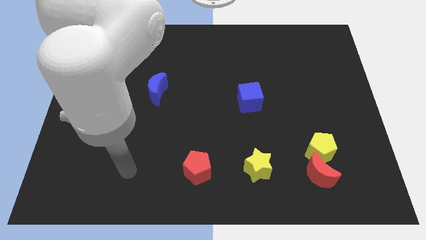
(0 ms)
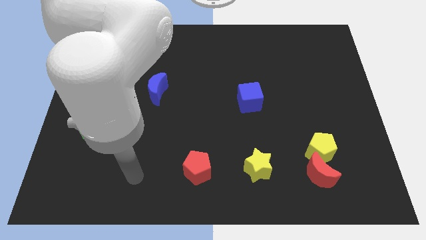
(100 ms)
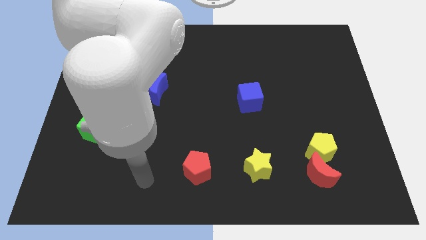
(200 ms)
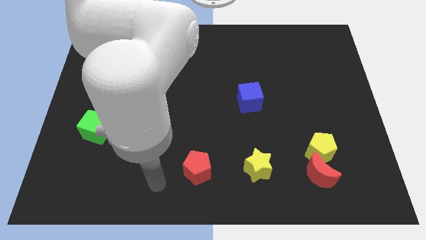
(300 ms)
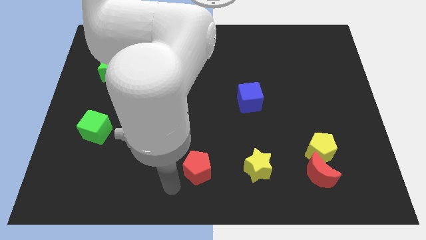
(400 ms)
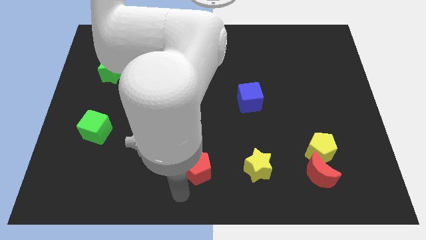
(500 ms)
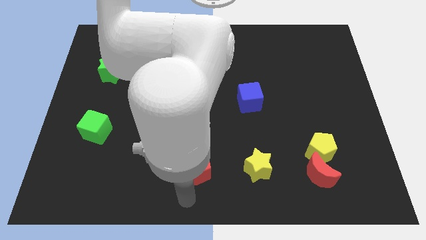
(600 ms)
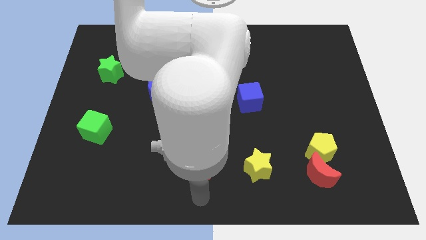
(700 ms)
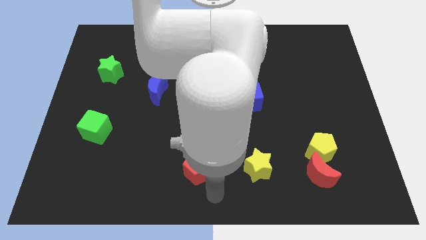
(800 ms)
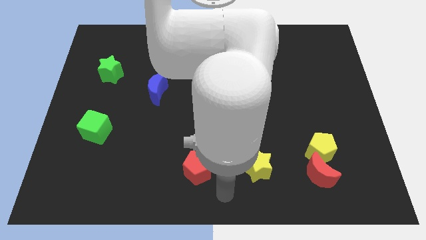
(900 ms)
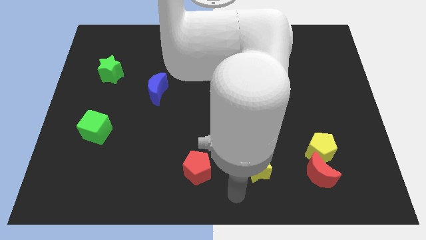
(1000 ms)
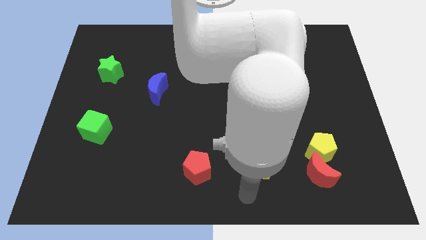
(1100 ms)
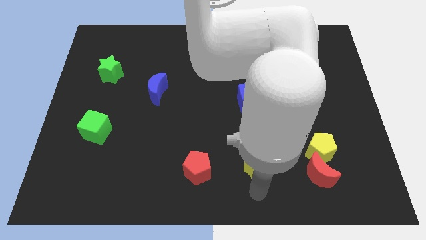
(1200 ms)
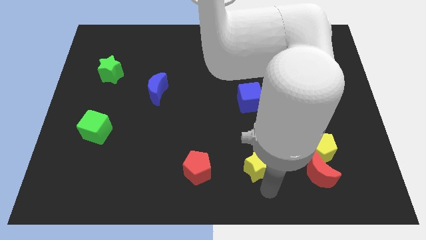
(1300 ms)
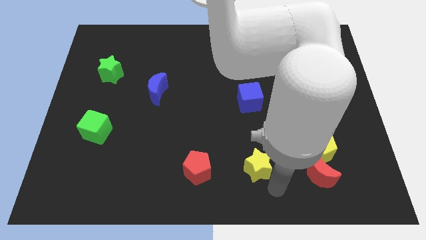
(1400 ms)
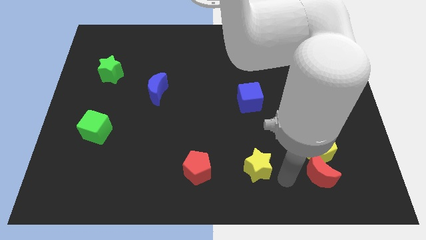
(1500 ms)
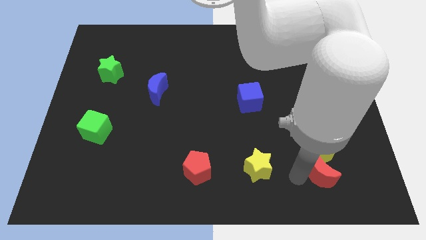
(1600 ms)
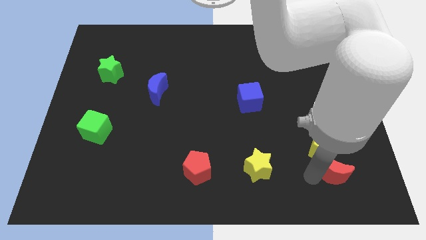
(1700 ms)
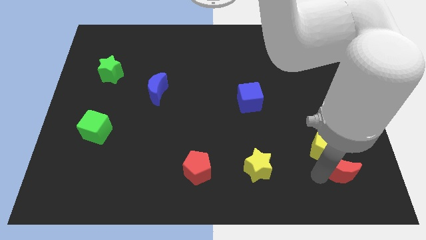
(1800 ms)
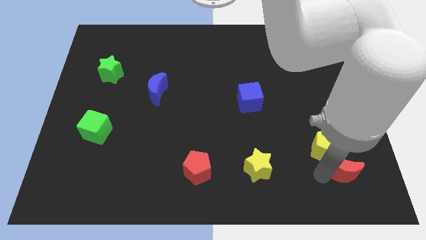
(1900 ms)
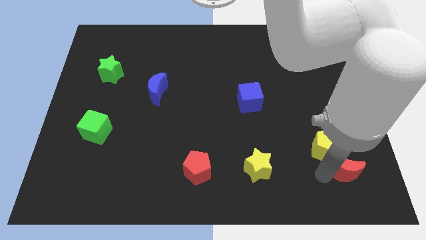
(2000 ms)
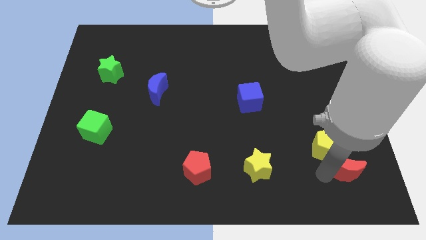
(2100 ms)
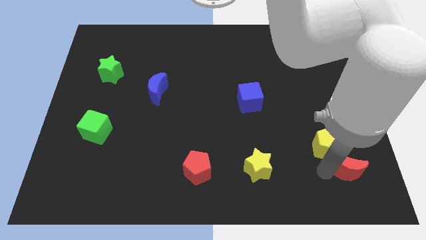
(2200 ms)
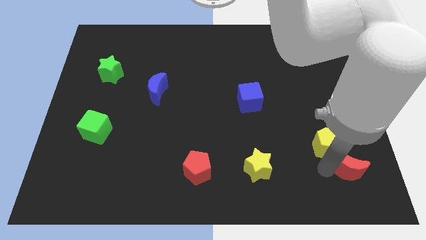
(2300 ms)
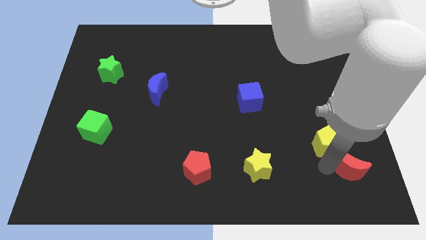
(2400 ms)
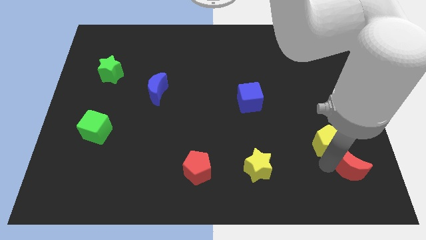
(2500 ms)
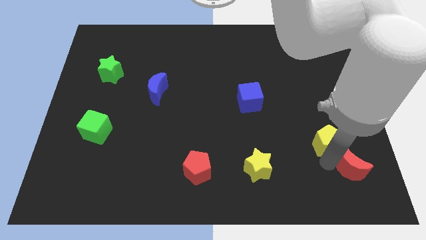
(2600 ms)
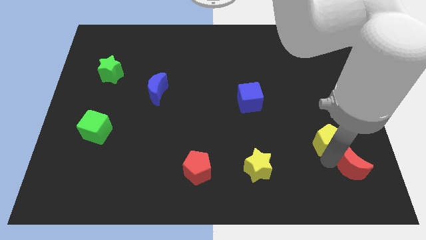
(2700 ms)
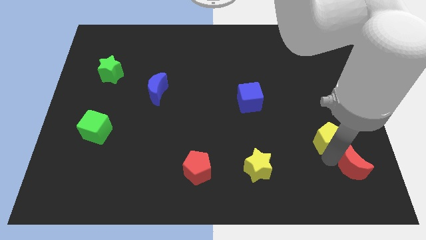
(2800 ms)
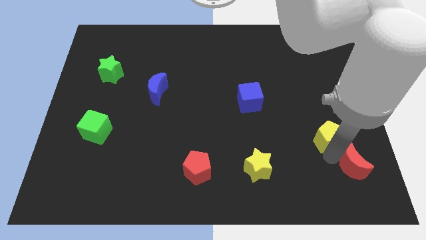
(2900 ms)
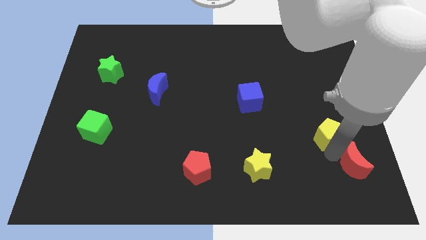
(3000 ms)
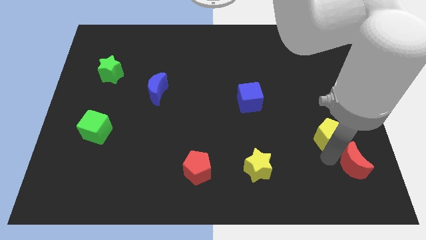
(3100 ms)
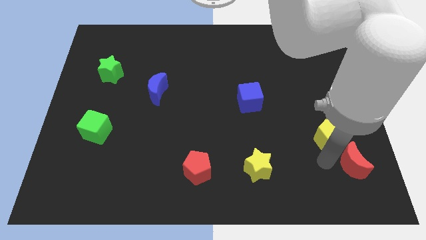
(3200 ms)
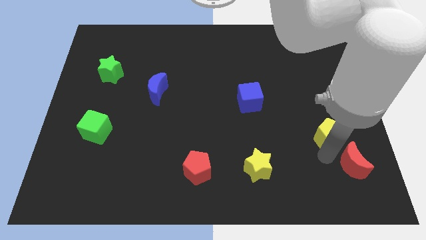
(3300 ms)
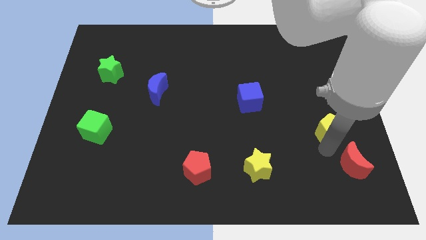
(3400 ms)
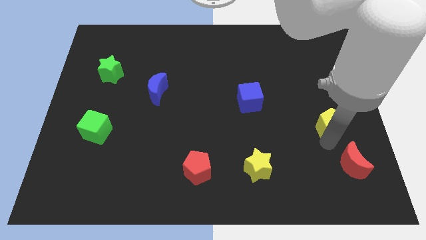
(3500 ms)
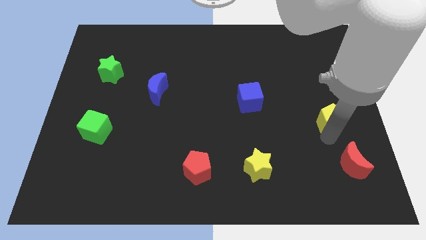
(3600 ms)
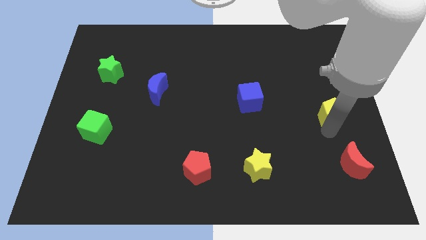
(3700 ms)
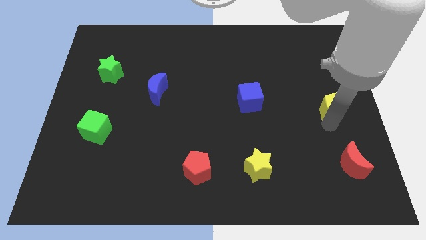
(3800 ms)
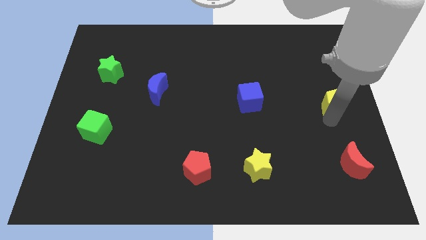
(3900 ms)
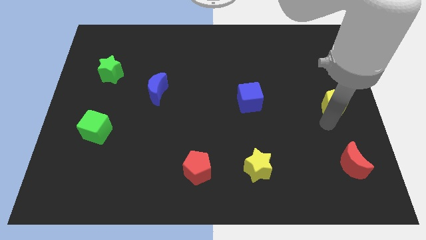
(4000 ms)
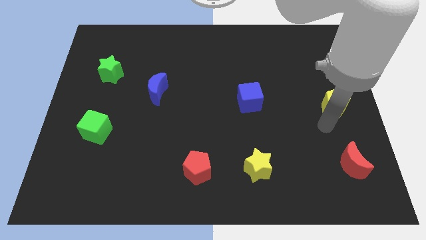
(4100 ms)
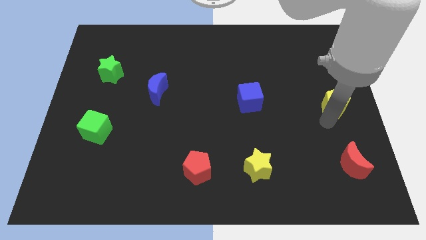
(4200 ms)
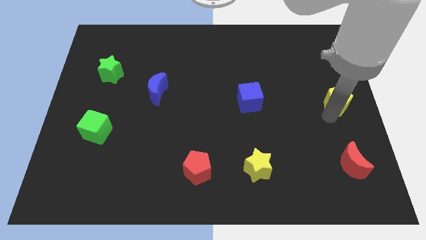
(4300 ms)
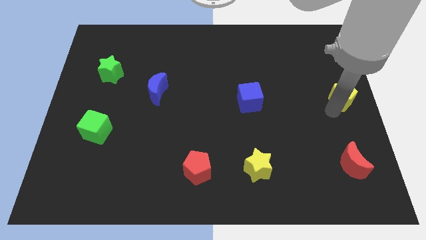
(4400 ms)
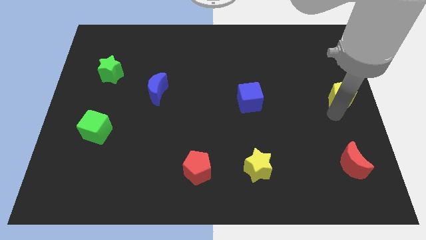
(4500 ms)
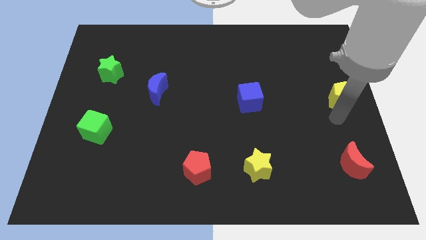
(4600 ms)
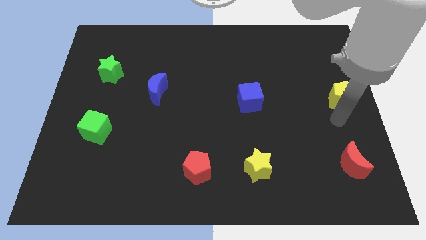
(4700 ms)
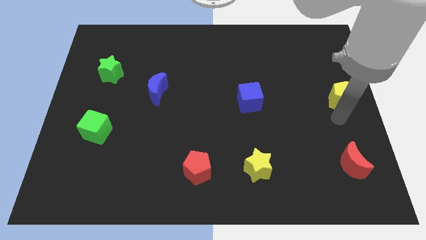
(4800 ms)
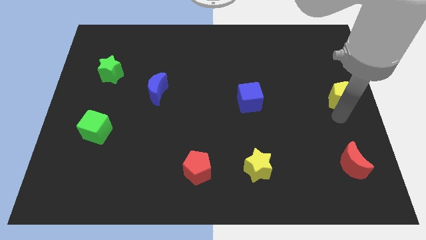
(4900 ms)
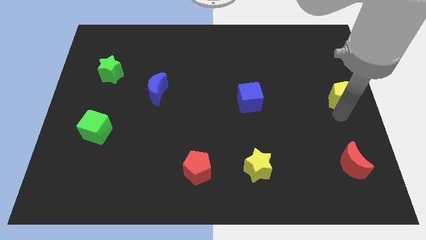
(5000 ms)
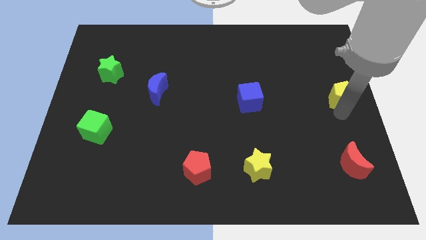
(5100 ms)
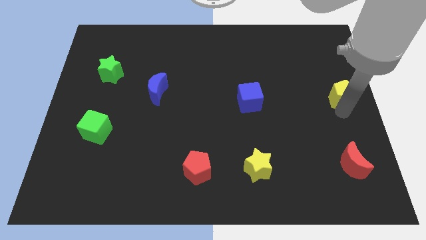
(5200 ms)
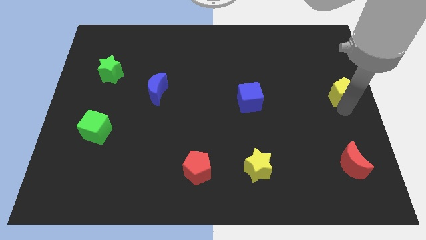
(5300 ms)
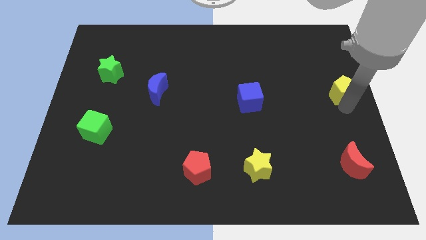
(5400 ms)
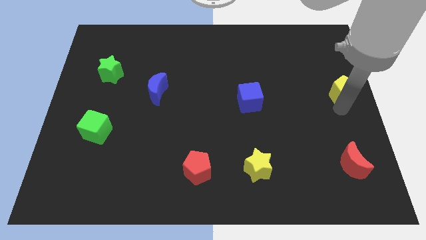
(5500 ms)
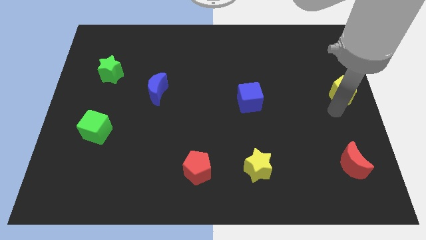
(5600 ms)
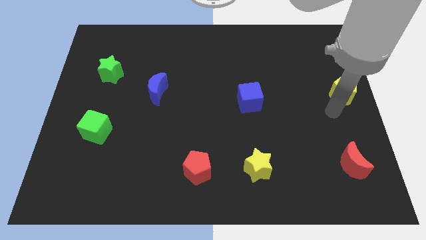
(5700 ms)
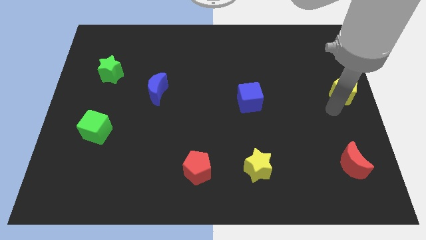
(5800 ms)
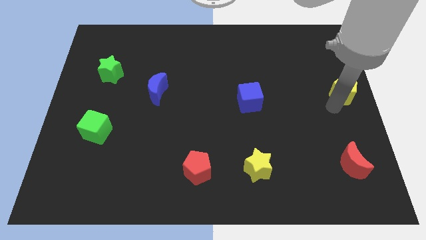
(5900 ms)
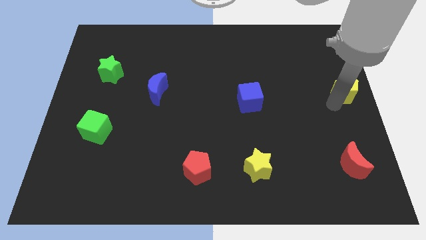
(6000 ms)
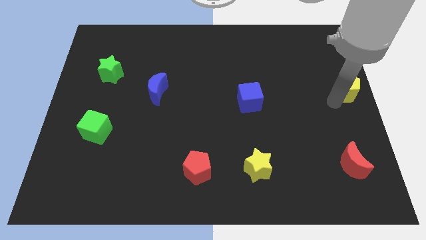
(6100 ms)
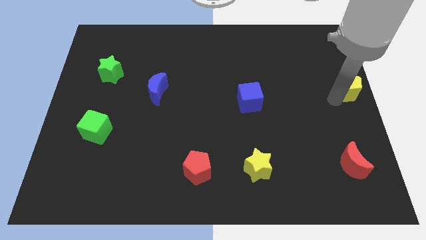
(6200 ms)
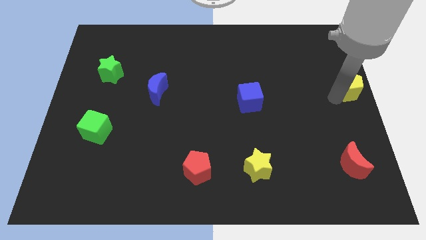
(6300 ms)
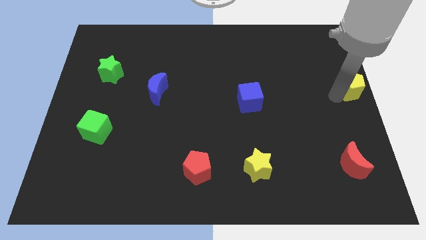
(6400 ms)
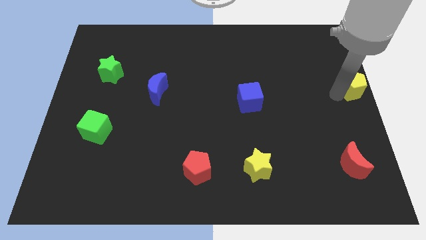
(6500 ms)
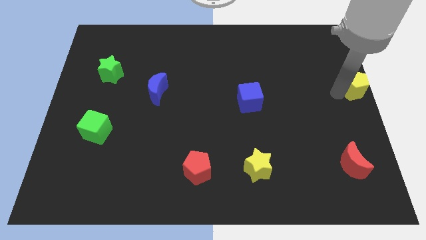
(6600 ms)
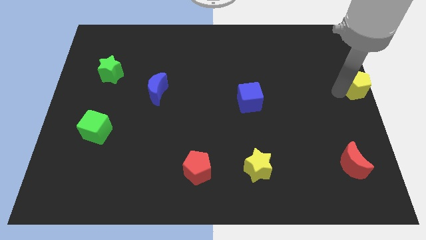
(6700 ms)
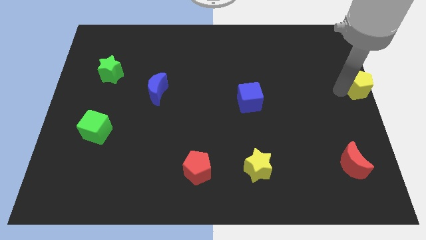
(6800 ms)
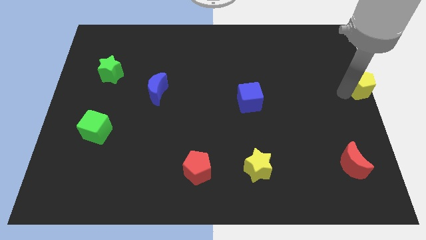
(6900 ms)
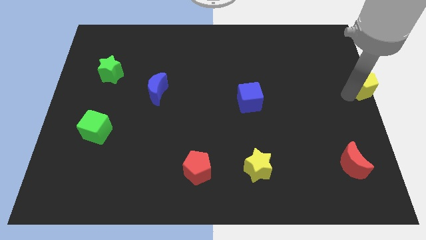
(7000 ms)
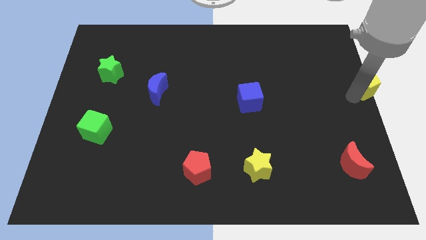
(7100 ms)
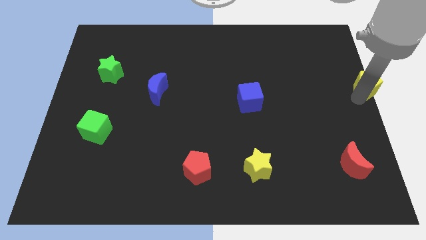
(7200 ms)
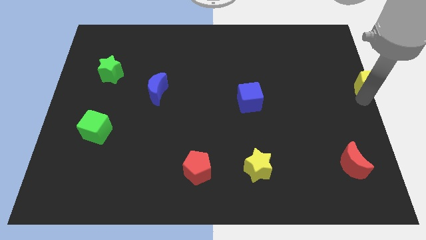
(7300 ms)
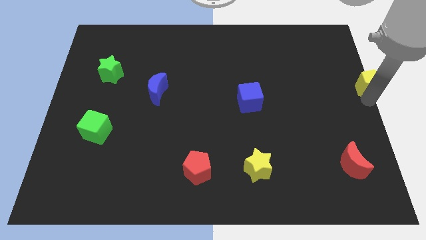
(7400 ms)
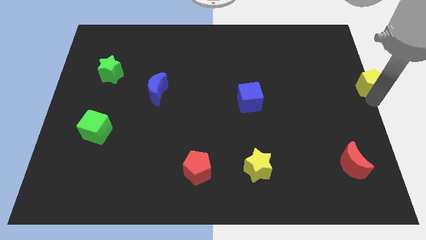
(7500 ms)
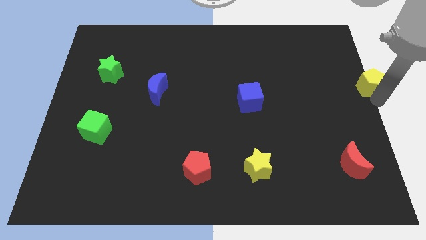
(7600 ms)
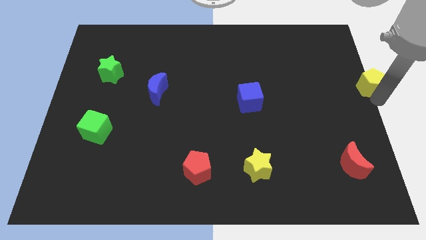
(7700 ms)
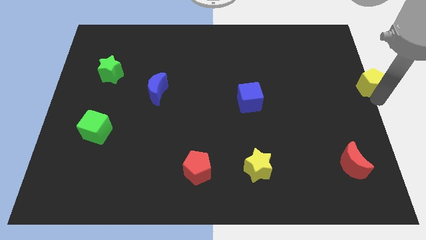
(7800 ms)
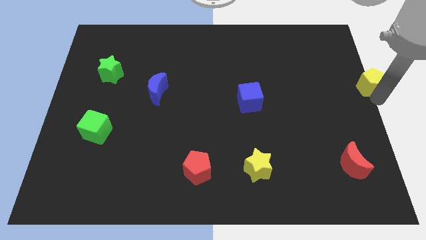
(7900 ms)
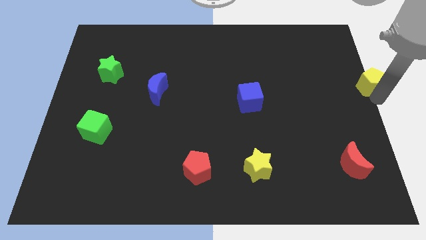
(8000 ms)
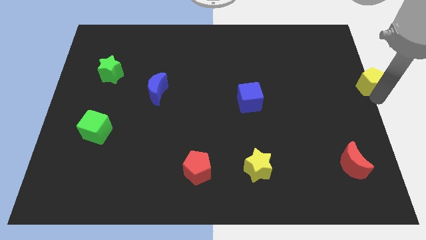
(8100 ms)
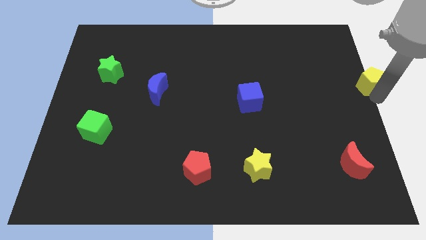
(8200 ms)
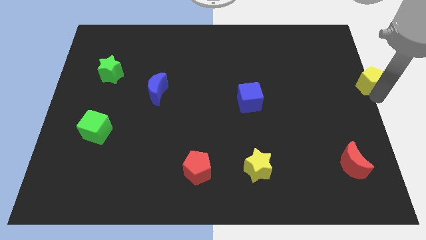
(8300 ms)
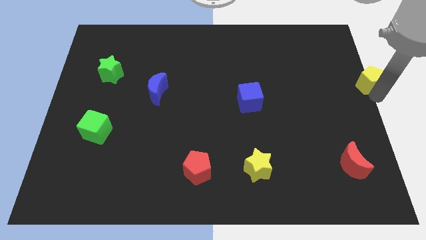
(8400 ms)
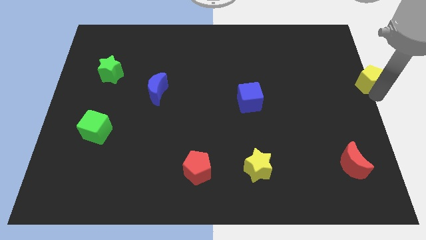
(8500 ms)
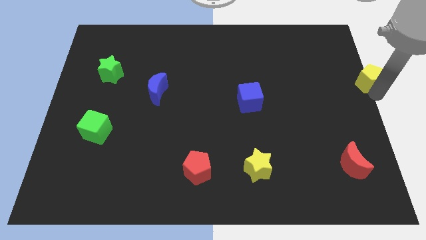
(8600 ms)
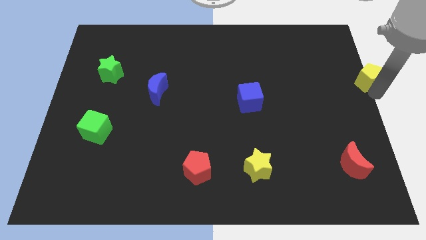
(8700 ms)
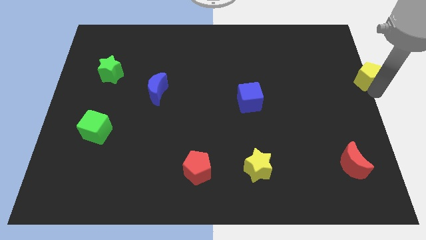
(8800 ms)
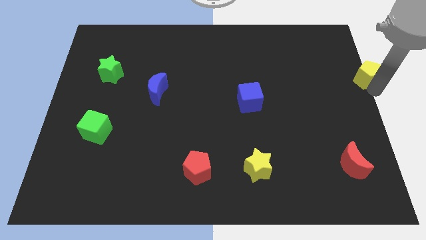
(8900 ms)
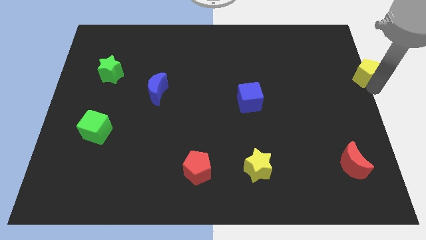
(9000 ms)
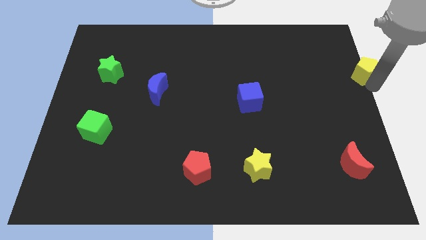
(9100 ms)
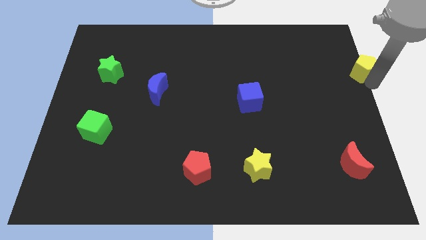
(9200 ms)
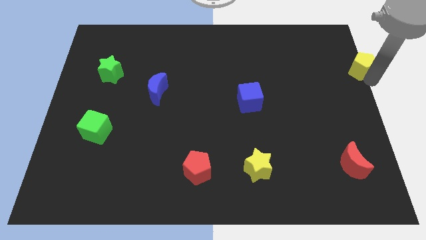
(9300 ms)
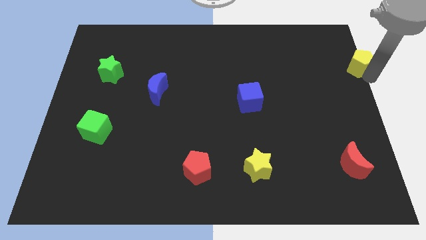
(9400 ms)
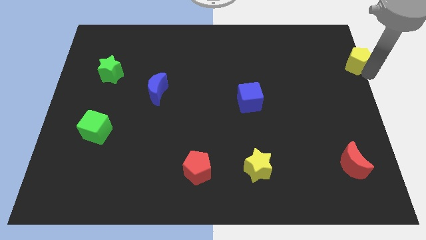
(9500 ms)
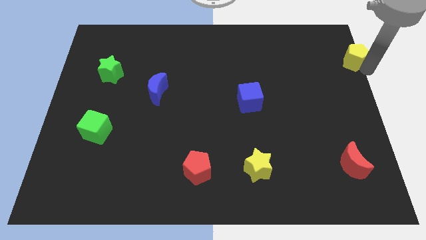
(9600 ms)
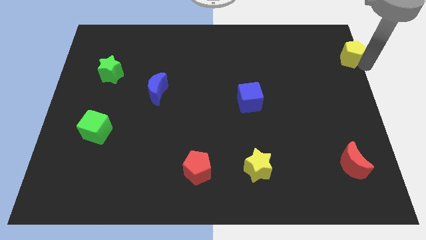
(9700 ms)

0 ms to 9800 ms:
move the yellow pentagon to the top right of the board
